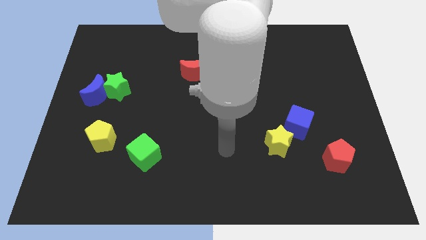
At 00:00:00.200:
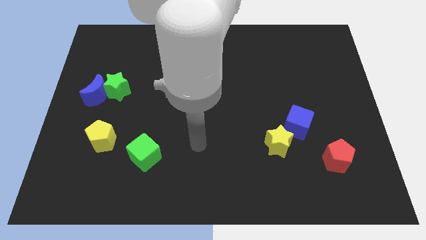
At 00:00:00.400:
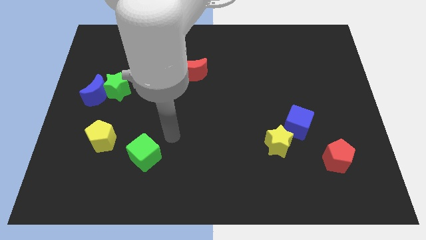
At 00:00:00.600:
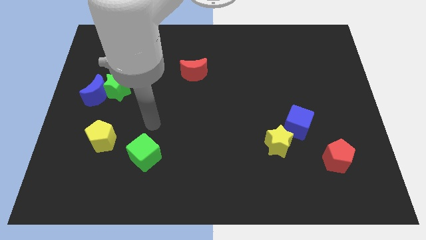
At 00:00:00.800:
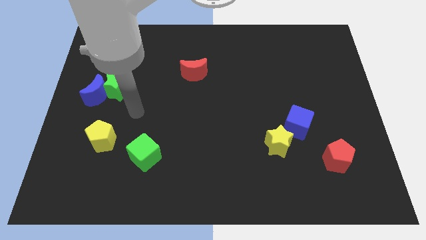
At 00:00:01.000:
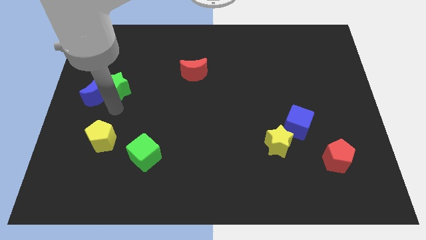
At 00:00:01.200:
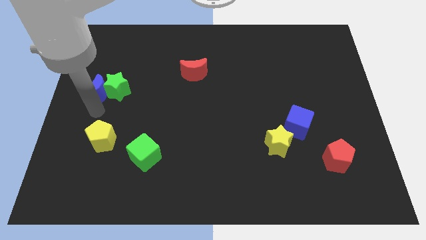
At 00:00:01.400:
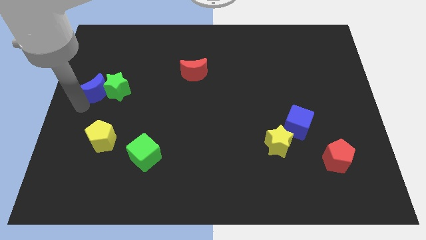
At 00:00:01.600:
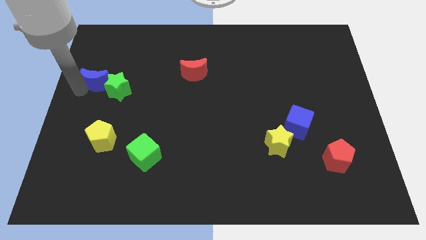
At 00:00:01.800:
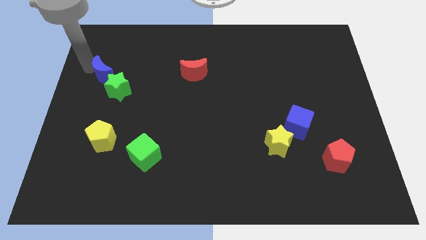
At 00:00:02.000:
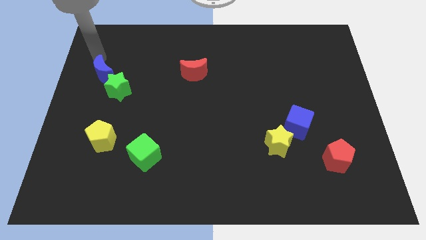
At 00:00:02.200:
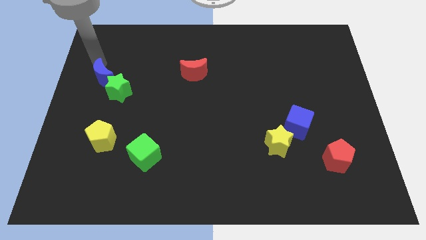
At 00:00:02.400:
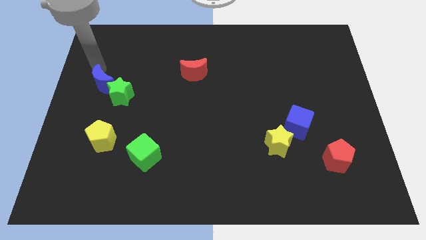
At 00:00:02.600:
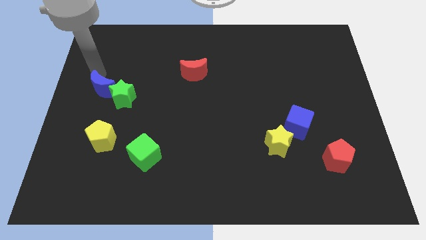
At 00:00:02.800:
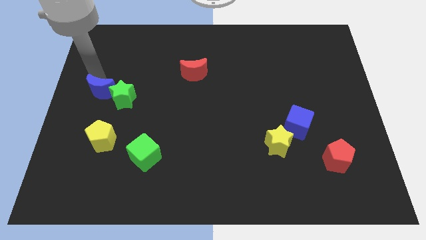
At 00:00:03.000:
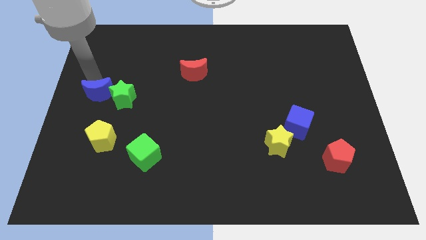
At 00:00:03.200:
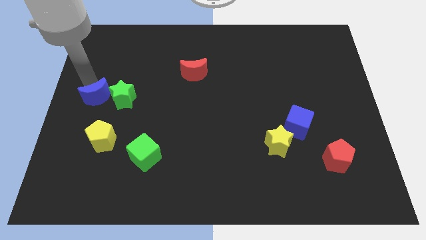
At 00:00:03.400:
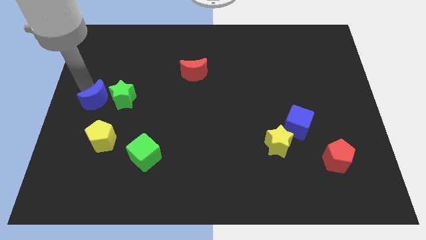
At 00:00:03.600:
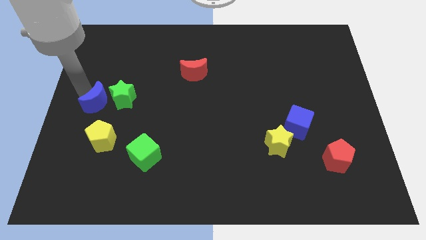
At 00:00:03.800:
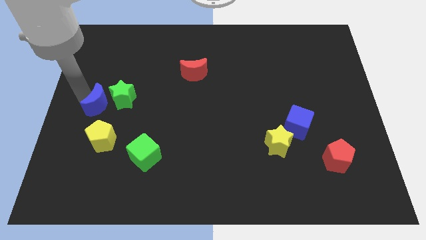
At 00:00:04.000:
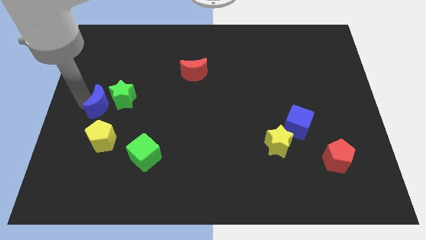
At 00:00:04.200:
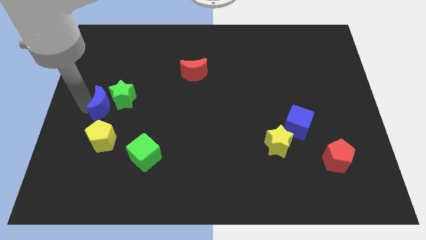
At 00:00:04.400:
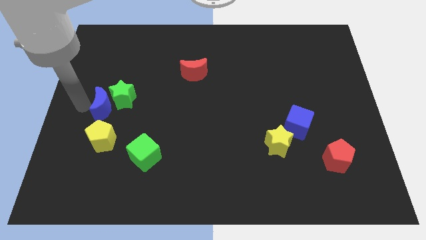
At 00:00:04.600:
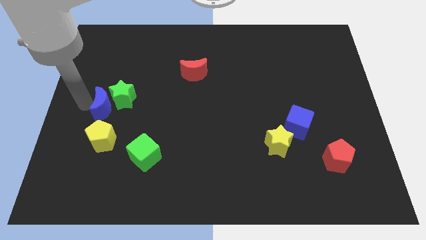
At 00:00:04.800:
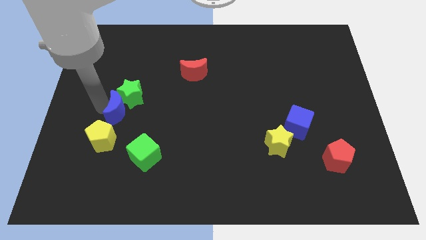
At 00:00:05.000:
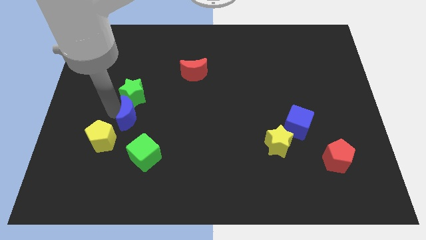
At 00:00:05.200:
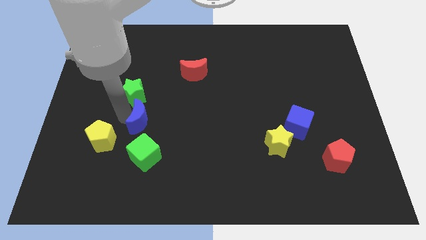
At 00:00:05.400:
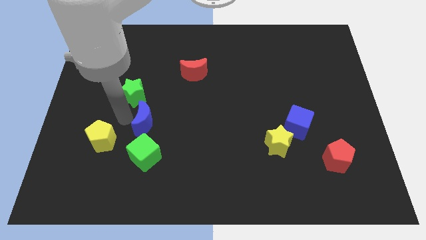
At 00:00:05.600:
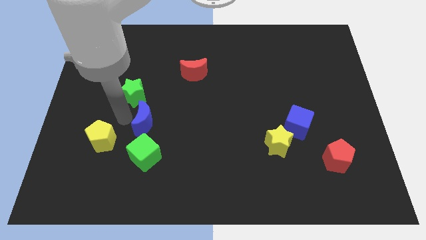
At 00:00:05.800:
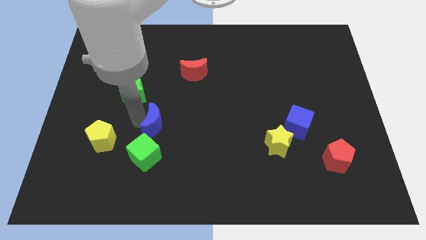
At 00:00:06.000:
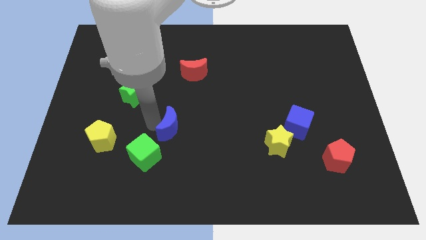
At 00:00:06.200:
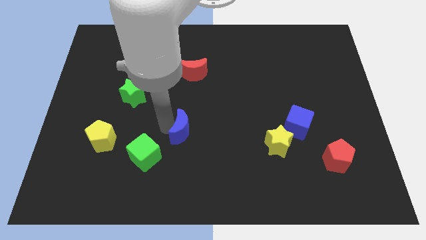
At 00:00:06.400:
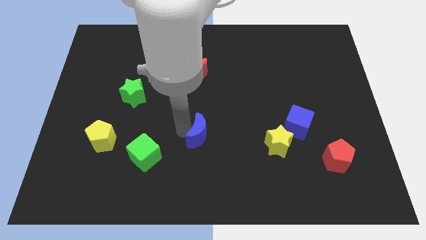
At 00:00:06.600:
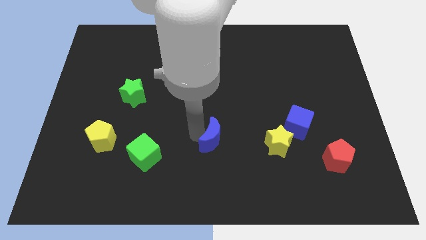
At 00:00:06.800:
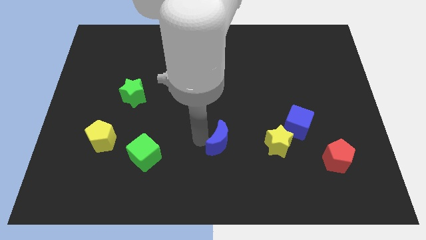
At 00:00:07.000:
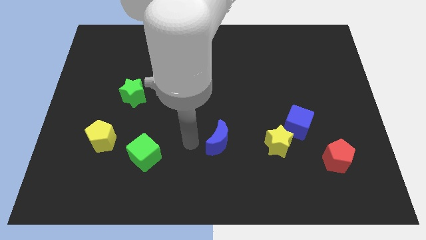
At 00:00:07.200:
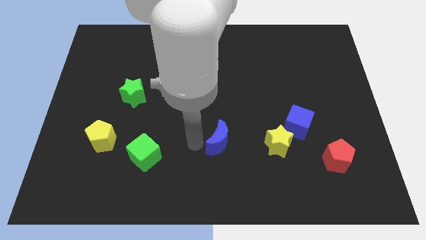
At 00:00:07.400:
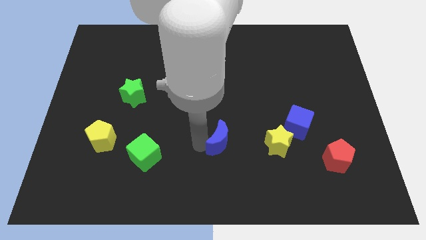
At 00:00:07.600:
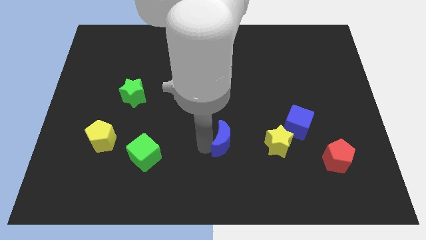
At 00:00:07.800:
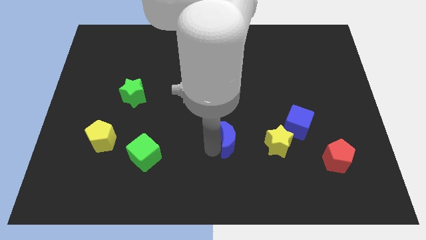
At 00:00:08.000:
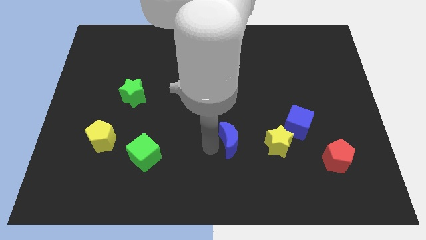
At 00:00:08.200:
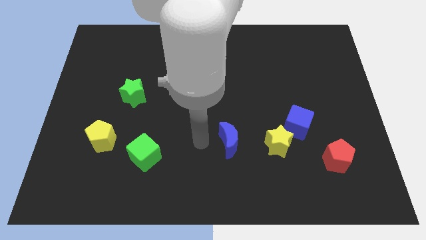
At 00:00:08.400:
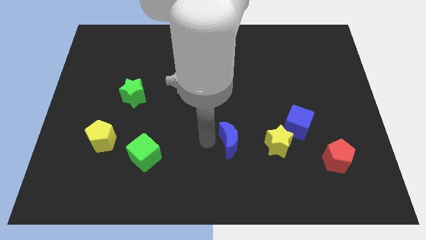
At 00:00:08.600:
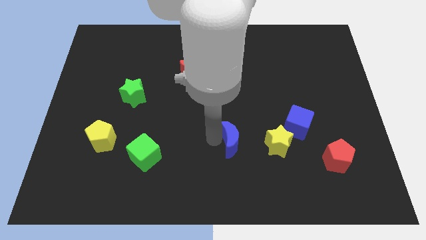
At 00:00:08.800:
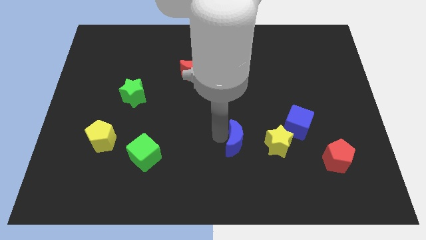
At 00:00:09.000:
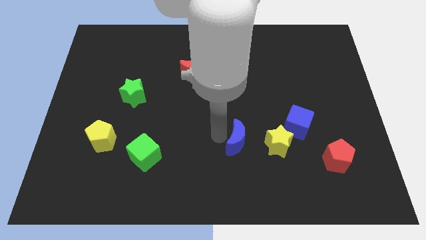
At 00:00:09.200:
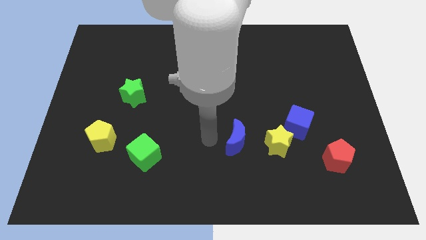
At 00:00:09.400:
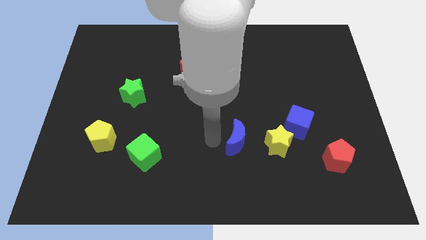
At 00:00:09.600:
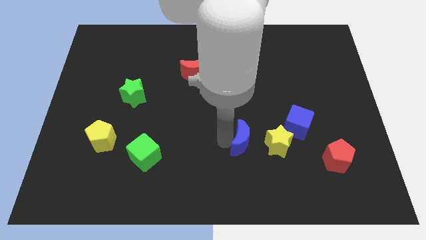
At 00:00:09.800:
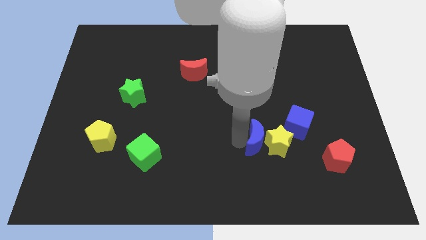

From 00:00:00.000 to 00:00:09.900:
move the blue moon towards the yellow star

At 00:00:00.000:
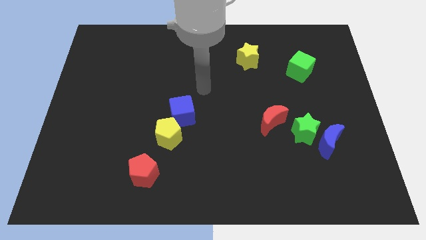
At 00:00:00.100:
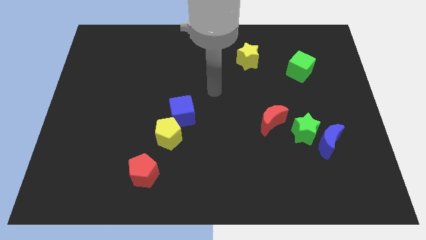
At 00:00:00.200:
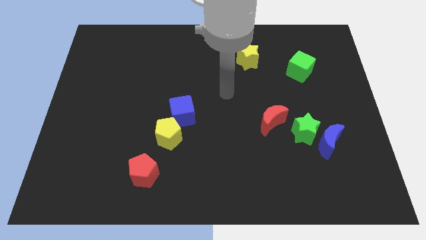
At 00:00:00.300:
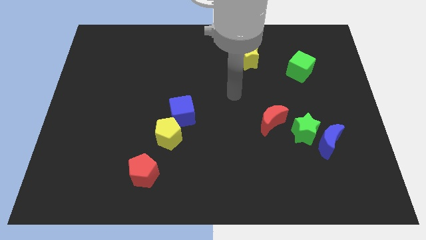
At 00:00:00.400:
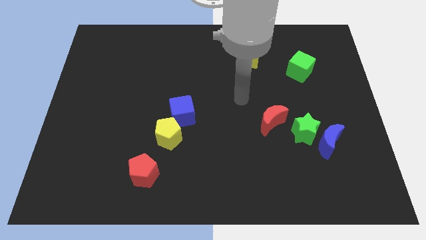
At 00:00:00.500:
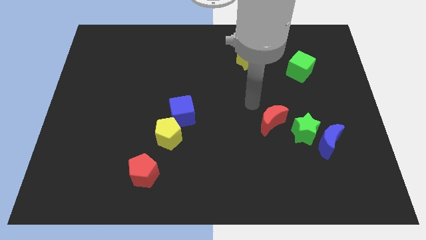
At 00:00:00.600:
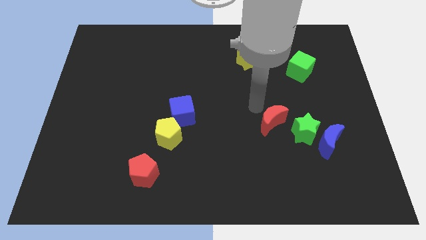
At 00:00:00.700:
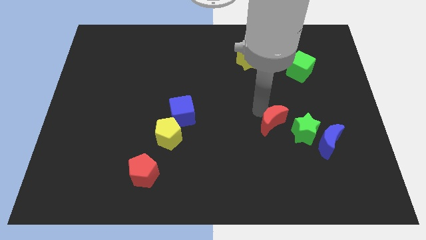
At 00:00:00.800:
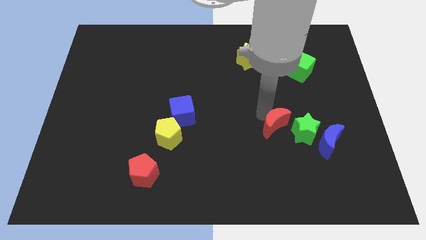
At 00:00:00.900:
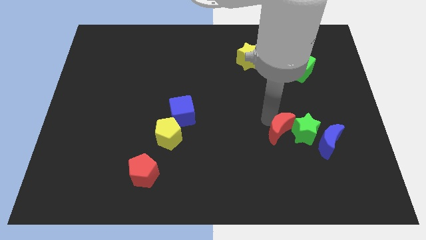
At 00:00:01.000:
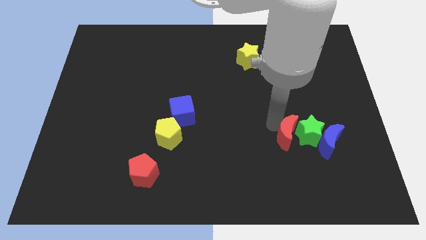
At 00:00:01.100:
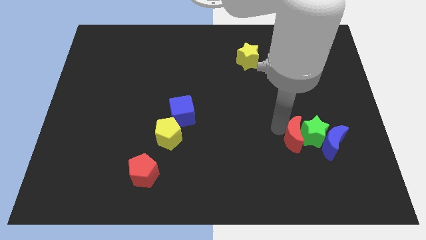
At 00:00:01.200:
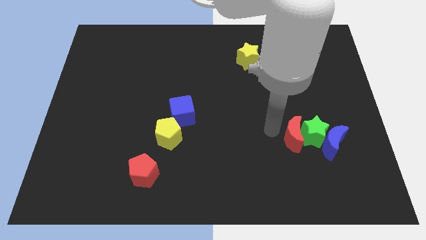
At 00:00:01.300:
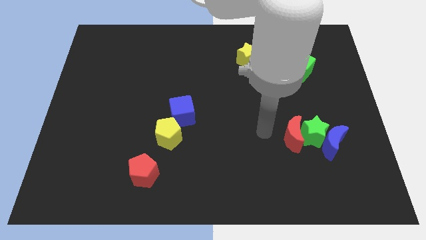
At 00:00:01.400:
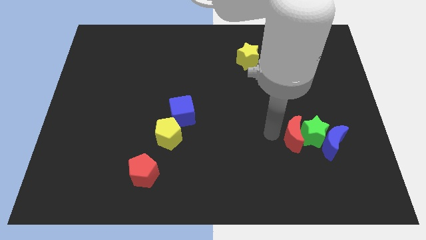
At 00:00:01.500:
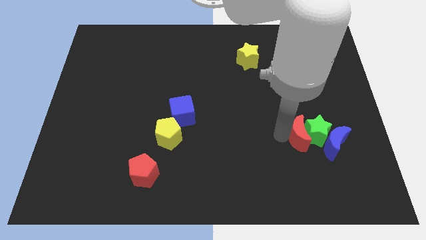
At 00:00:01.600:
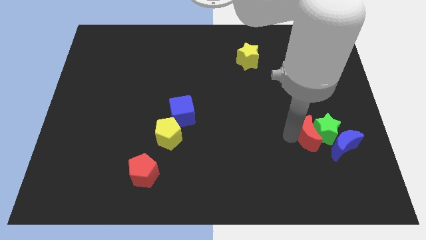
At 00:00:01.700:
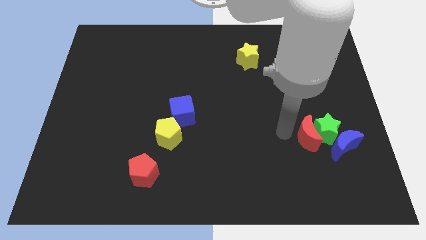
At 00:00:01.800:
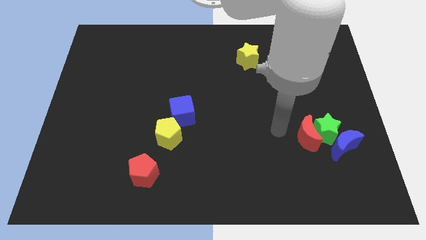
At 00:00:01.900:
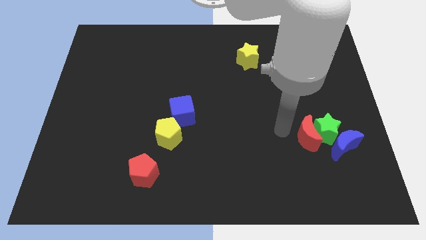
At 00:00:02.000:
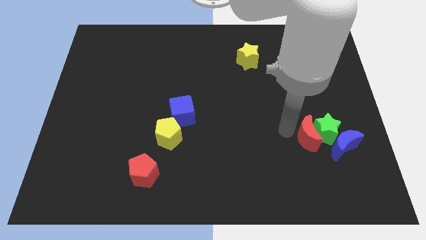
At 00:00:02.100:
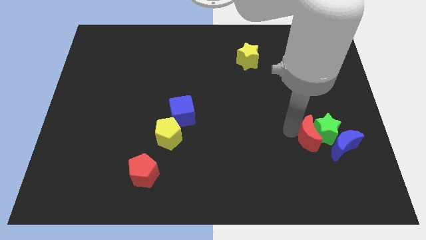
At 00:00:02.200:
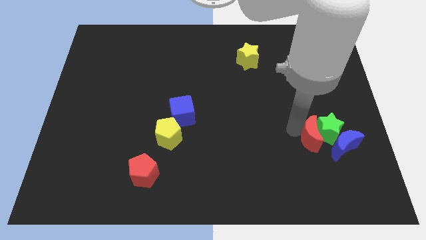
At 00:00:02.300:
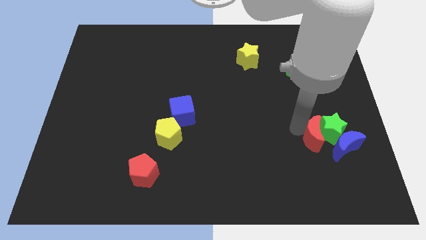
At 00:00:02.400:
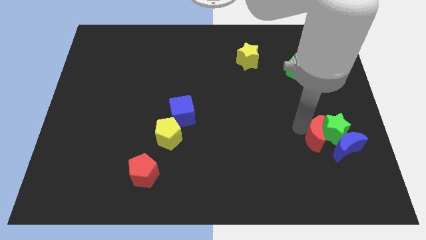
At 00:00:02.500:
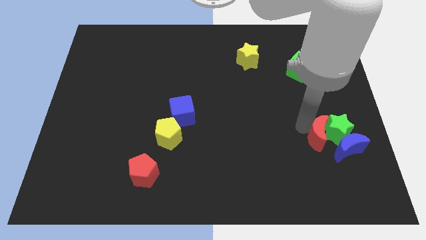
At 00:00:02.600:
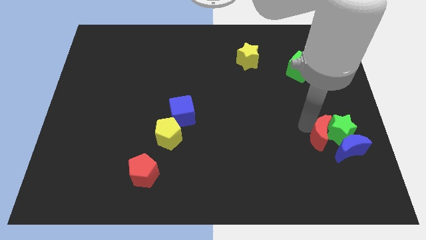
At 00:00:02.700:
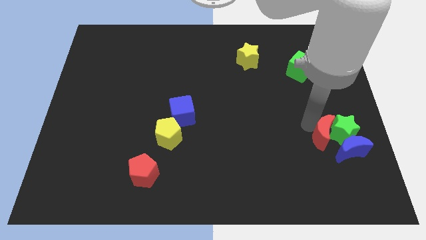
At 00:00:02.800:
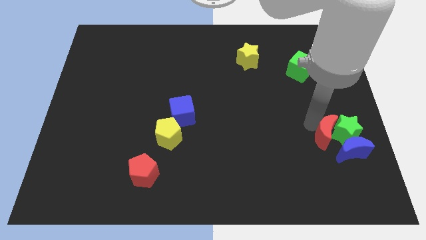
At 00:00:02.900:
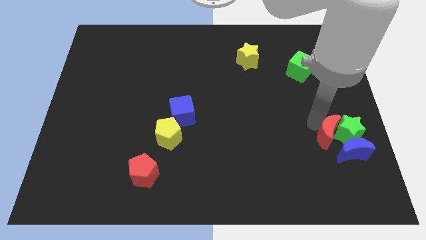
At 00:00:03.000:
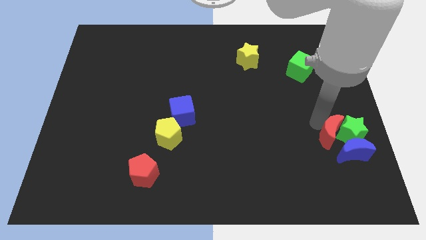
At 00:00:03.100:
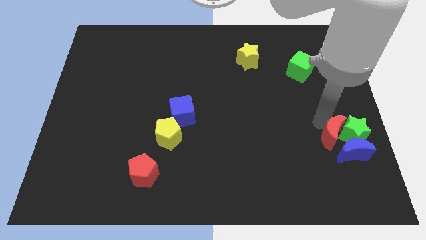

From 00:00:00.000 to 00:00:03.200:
push the red moon next to the blue moon
